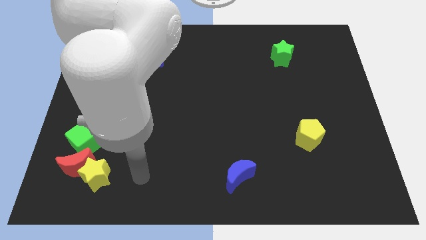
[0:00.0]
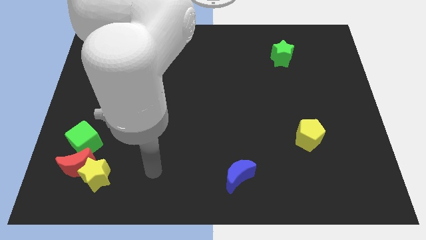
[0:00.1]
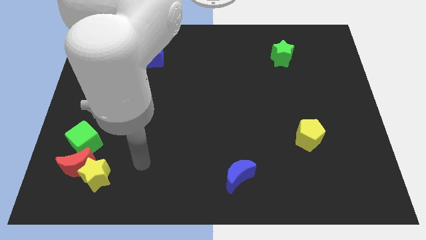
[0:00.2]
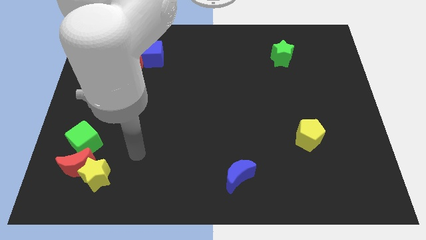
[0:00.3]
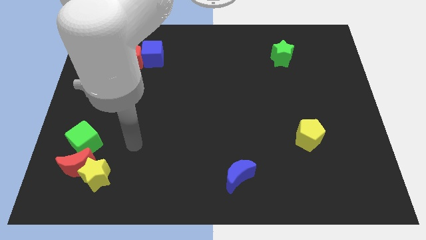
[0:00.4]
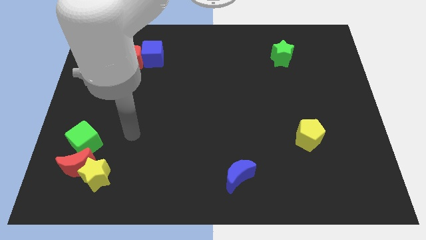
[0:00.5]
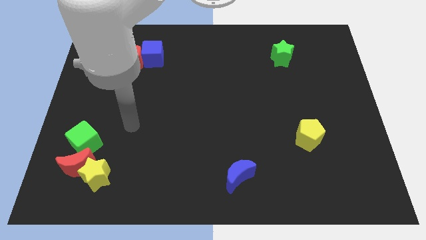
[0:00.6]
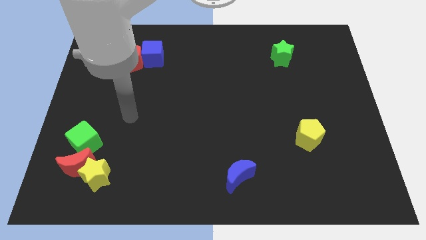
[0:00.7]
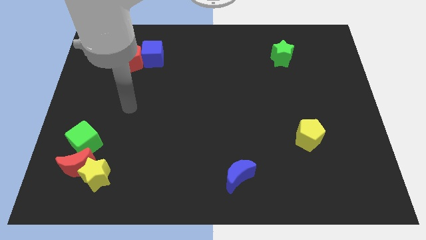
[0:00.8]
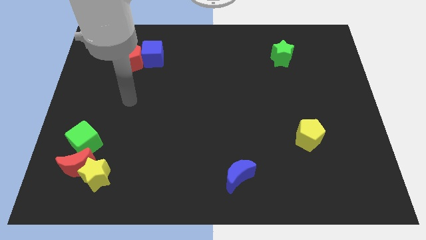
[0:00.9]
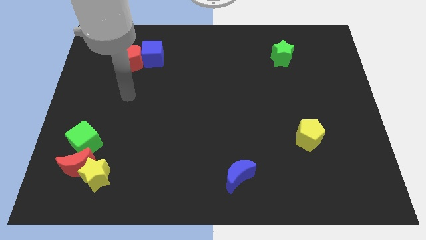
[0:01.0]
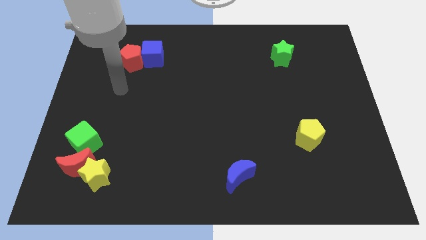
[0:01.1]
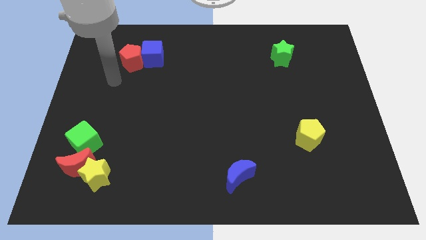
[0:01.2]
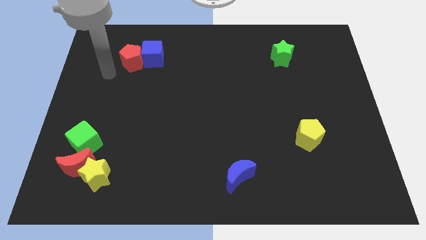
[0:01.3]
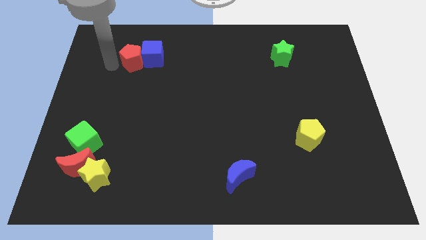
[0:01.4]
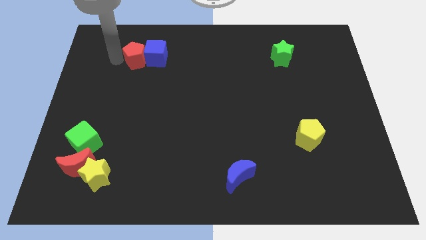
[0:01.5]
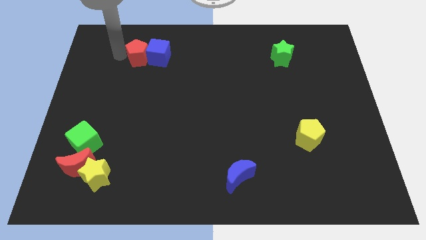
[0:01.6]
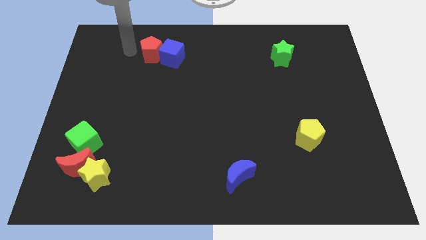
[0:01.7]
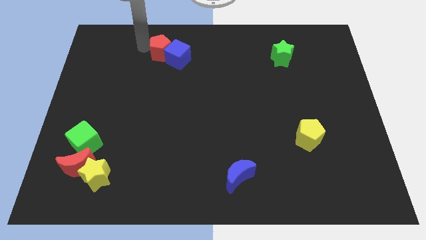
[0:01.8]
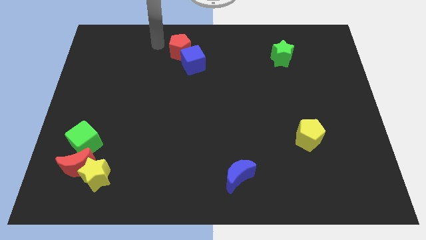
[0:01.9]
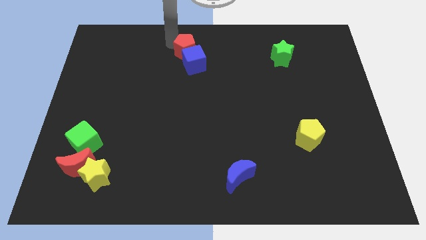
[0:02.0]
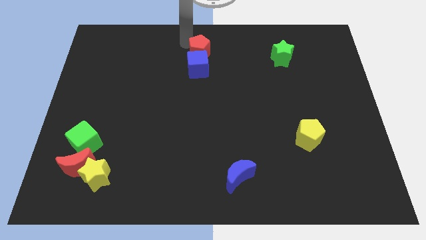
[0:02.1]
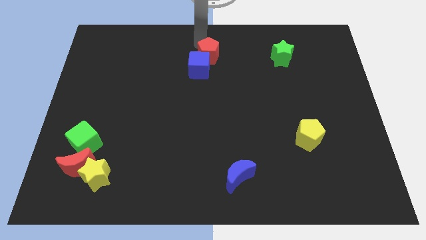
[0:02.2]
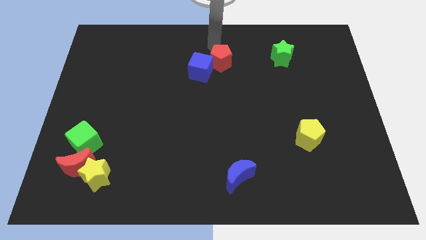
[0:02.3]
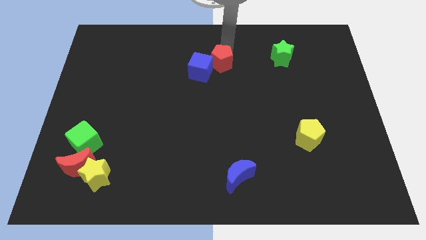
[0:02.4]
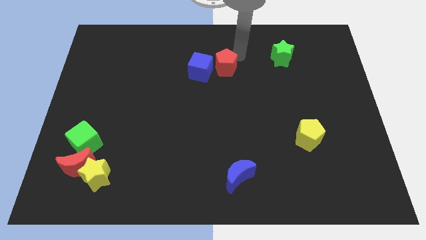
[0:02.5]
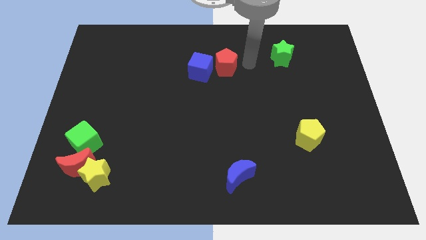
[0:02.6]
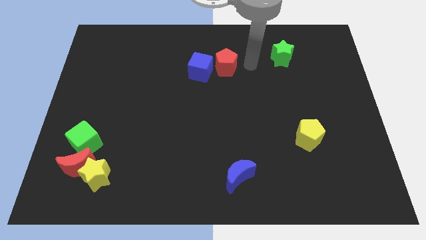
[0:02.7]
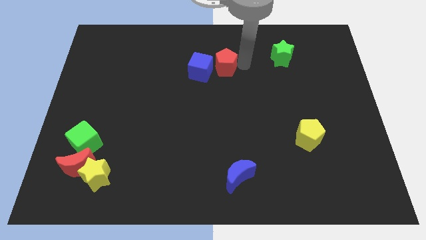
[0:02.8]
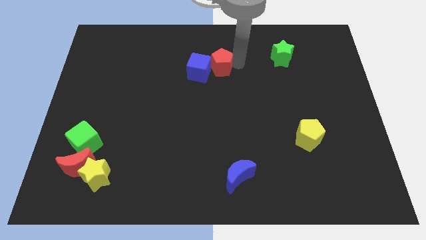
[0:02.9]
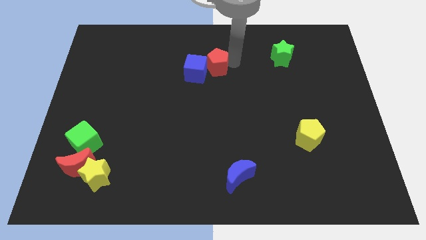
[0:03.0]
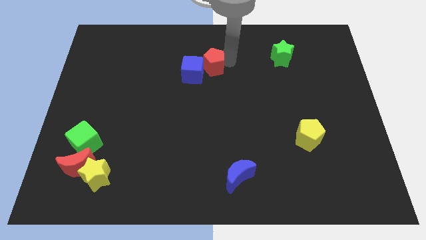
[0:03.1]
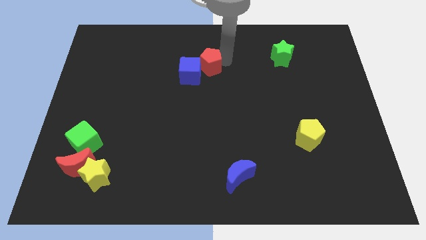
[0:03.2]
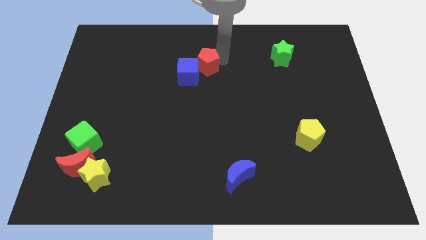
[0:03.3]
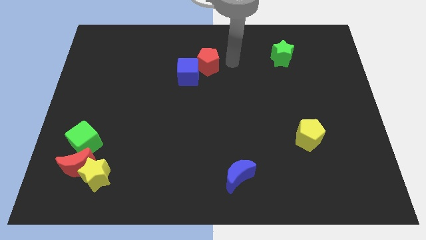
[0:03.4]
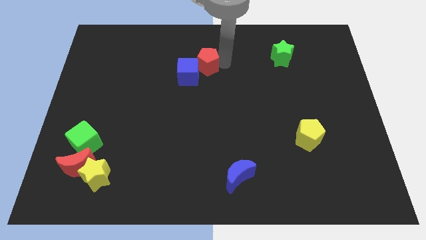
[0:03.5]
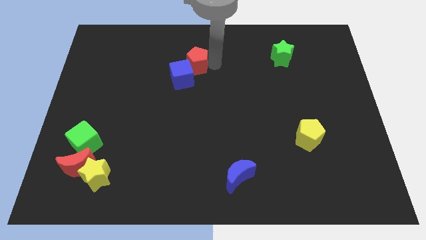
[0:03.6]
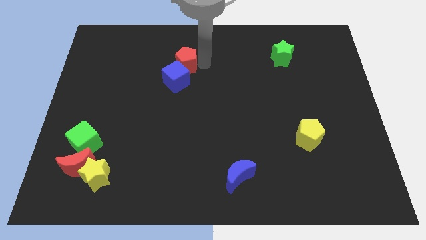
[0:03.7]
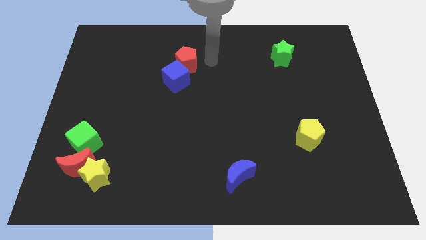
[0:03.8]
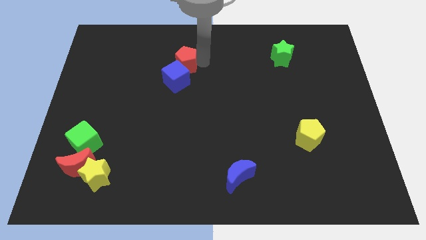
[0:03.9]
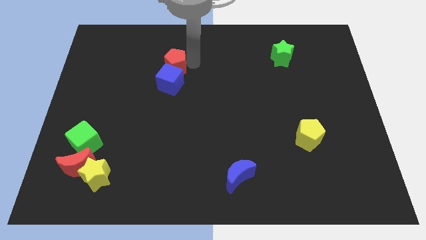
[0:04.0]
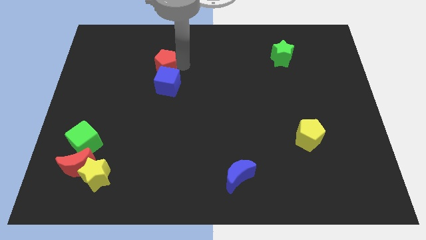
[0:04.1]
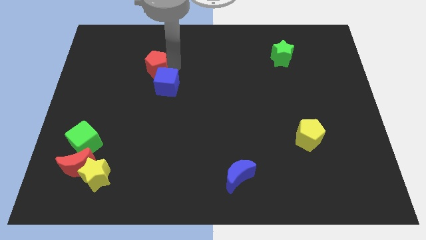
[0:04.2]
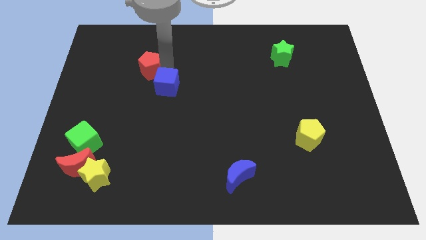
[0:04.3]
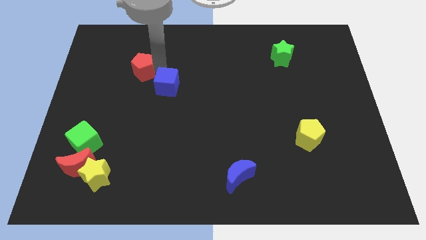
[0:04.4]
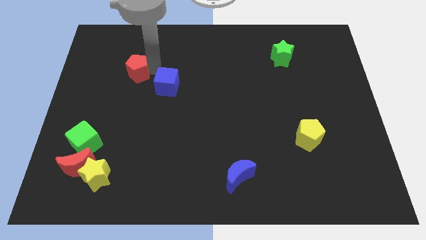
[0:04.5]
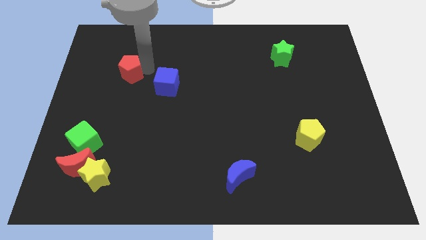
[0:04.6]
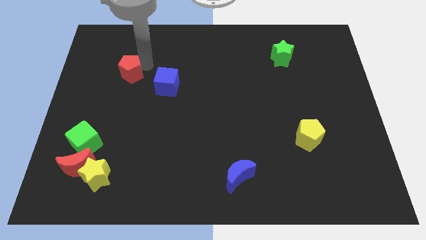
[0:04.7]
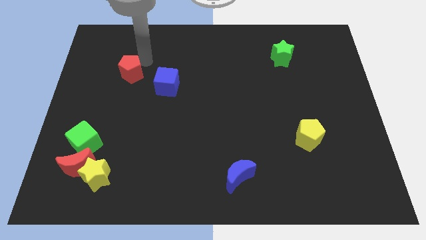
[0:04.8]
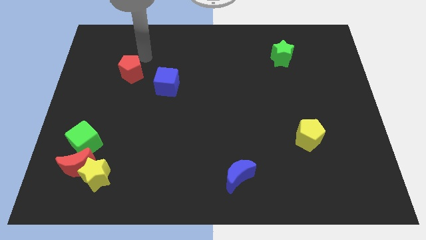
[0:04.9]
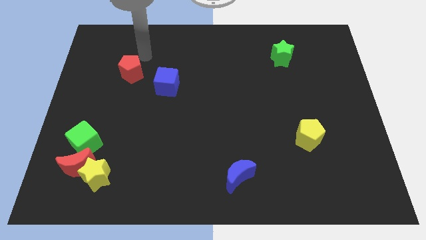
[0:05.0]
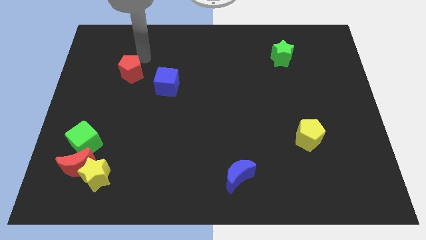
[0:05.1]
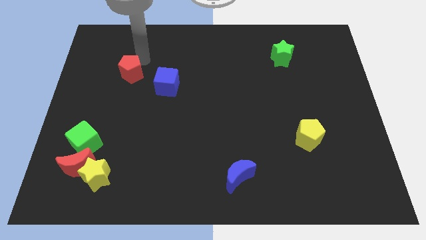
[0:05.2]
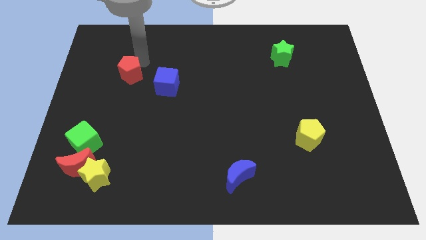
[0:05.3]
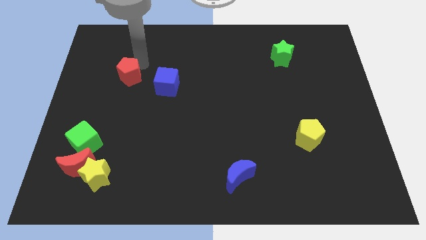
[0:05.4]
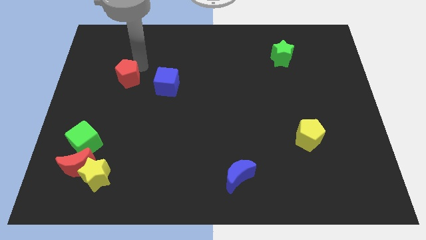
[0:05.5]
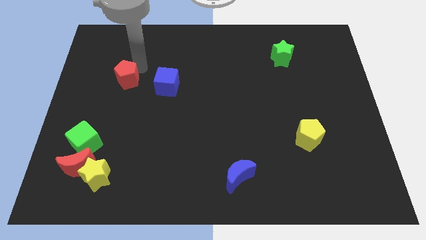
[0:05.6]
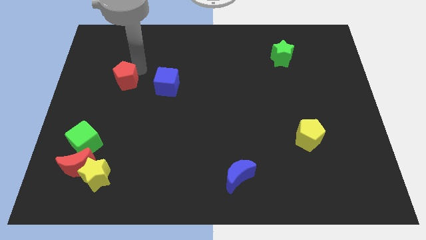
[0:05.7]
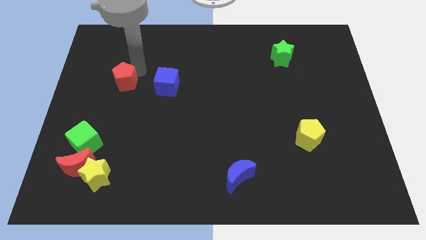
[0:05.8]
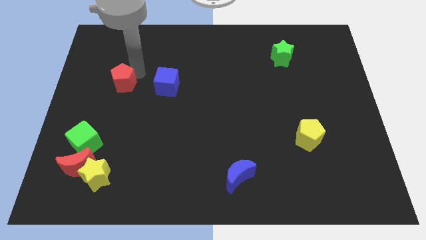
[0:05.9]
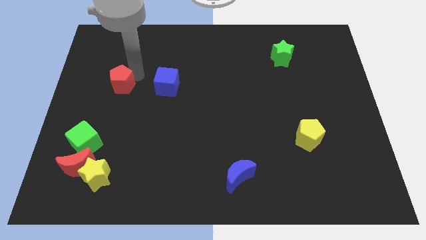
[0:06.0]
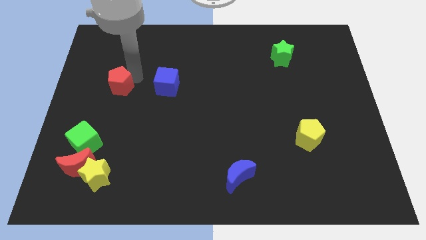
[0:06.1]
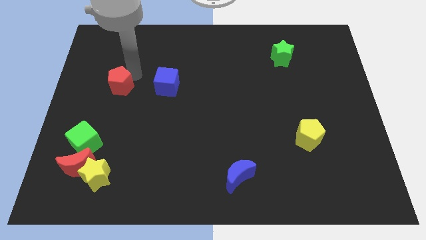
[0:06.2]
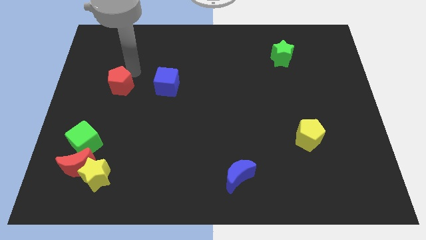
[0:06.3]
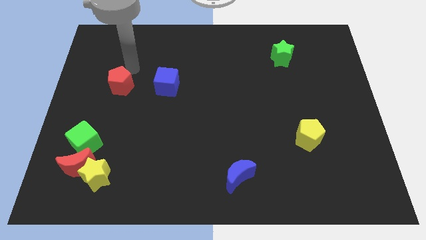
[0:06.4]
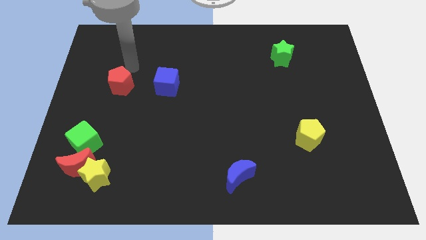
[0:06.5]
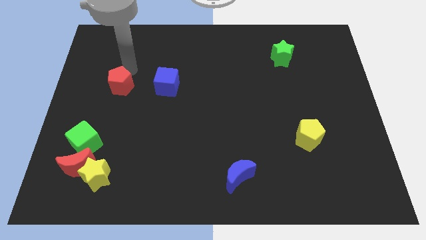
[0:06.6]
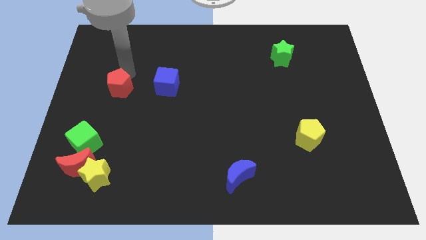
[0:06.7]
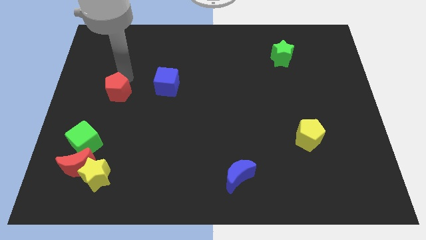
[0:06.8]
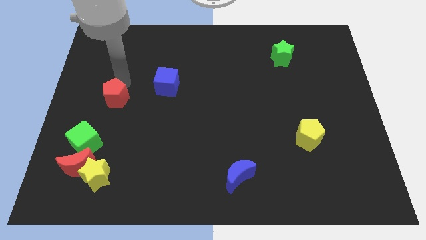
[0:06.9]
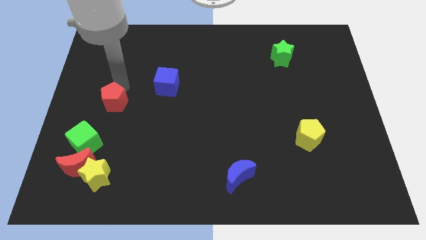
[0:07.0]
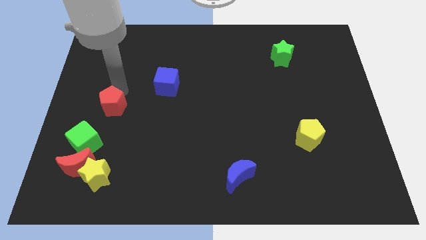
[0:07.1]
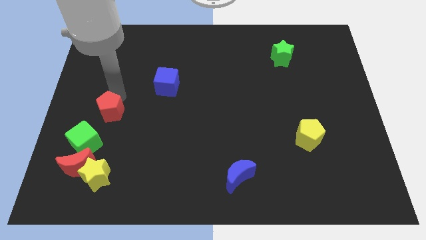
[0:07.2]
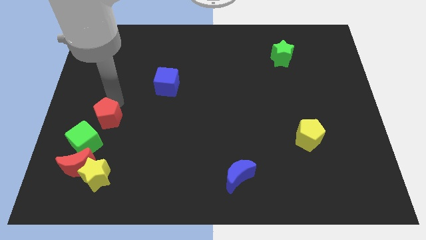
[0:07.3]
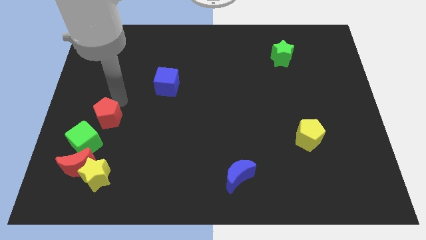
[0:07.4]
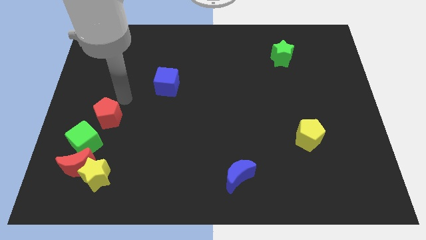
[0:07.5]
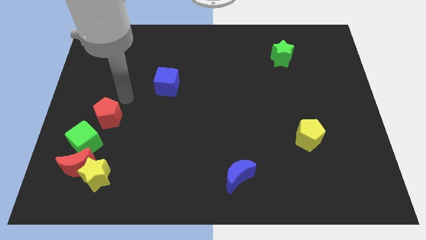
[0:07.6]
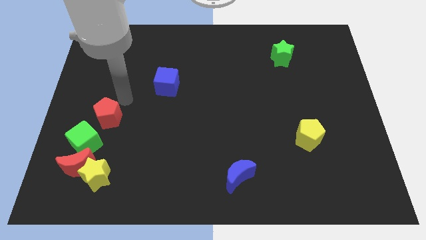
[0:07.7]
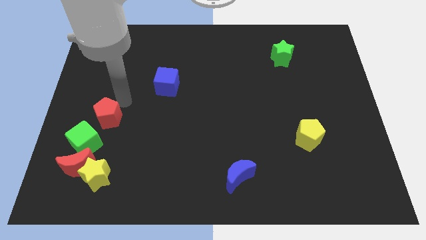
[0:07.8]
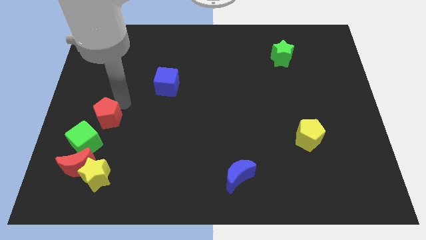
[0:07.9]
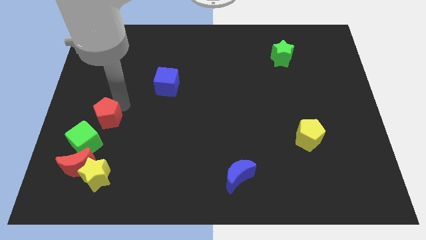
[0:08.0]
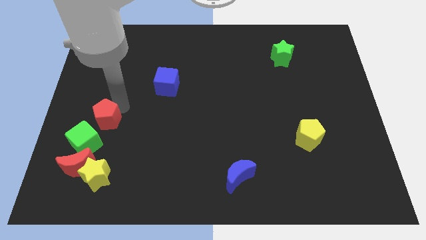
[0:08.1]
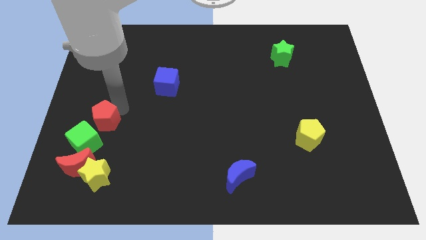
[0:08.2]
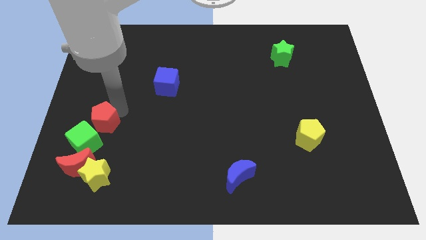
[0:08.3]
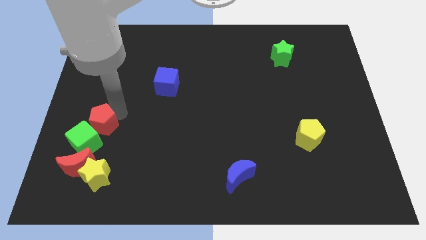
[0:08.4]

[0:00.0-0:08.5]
put the red pentagon close to the green cube
